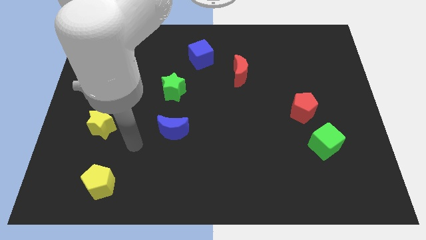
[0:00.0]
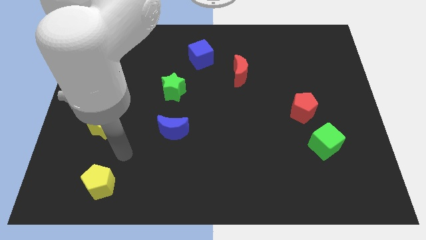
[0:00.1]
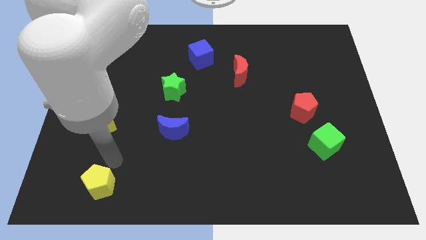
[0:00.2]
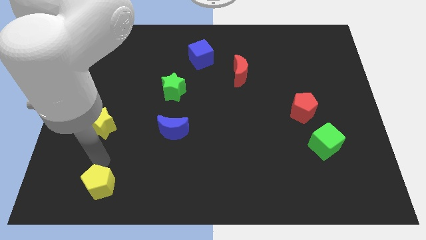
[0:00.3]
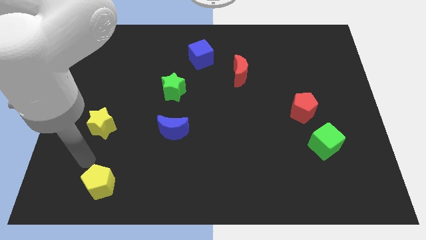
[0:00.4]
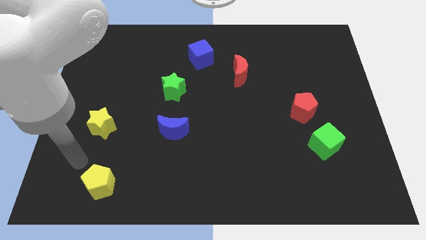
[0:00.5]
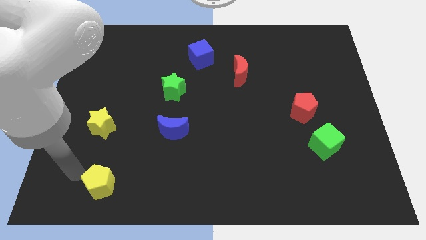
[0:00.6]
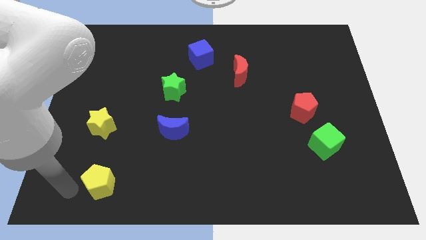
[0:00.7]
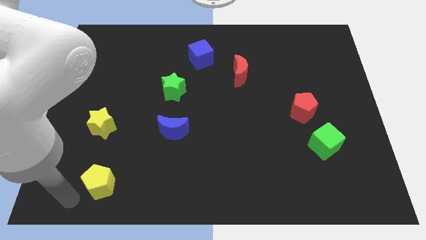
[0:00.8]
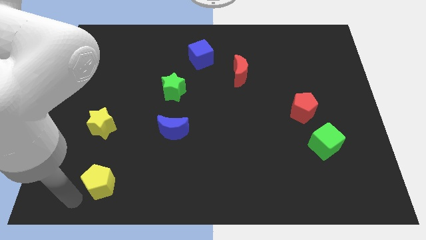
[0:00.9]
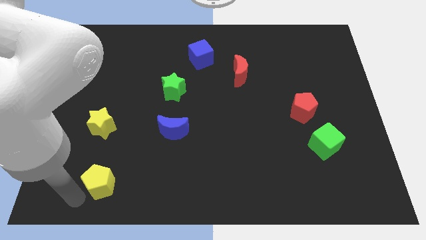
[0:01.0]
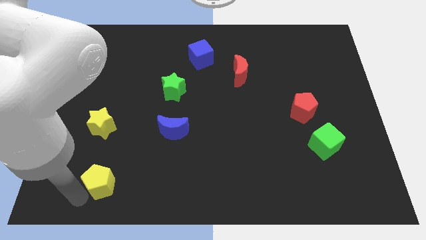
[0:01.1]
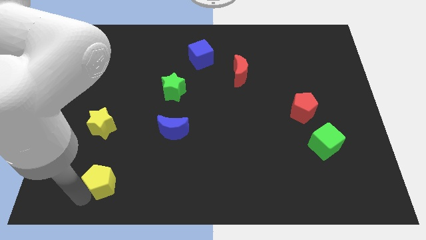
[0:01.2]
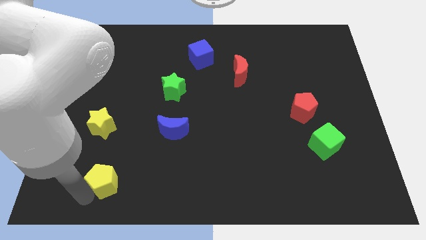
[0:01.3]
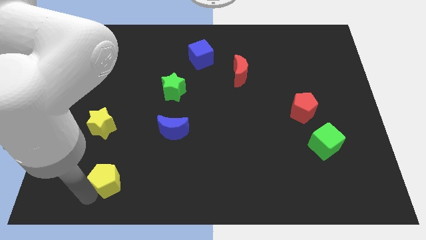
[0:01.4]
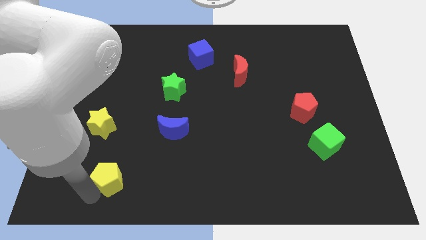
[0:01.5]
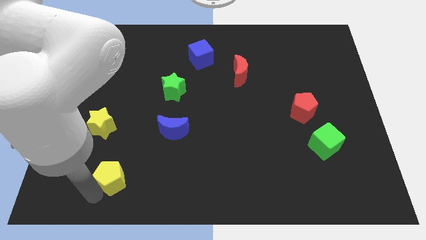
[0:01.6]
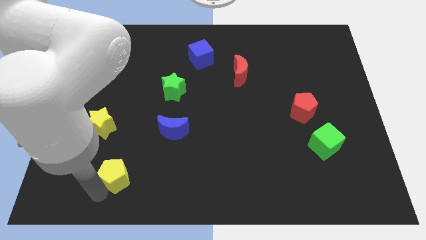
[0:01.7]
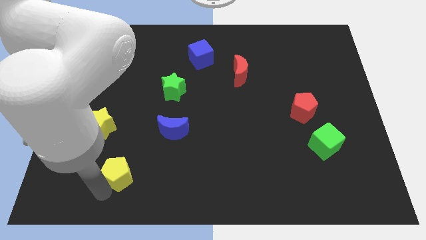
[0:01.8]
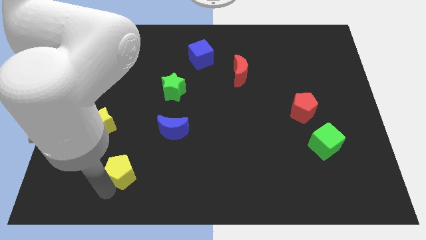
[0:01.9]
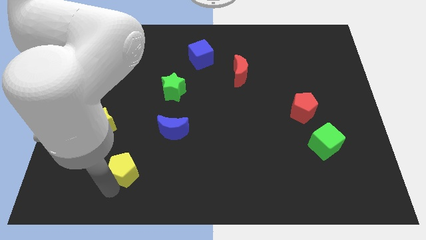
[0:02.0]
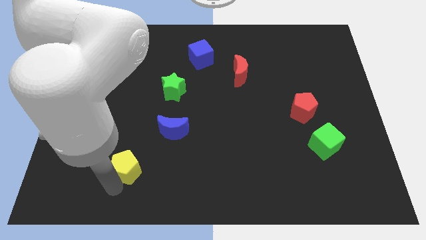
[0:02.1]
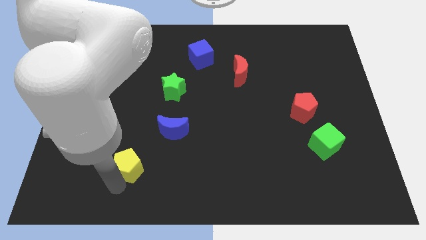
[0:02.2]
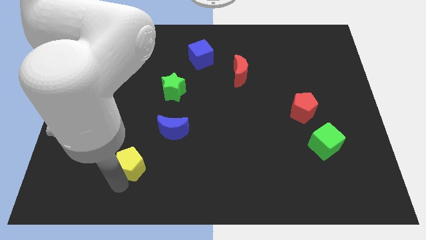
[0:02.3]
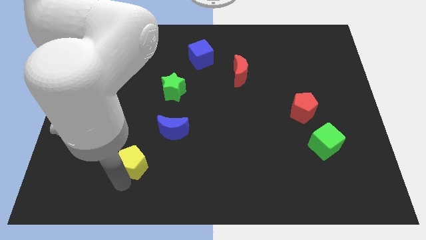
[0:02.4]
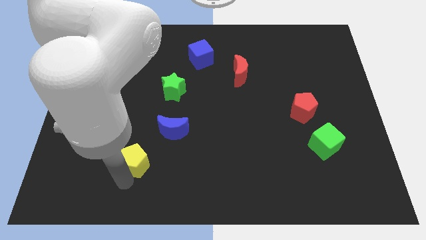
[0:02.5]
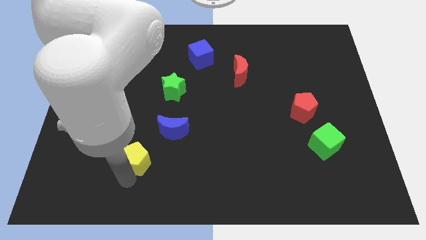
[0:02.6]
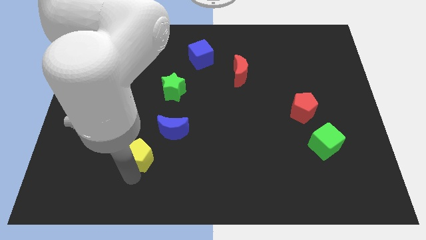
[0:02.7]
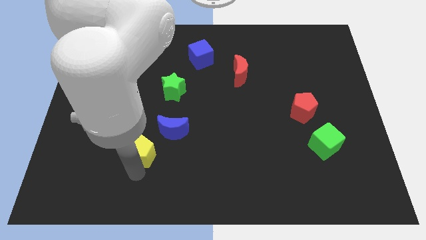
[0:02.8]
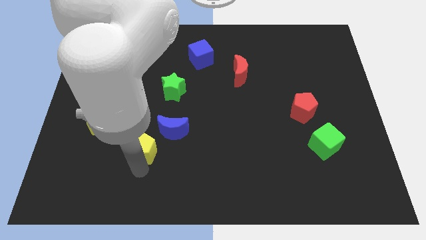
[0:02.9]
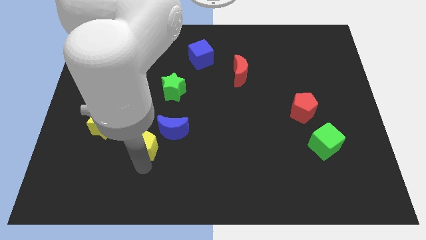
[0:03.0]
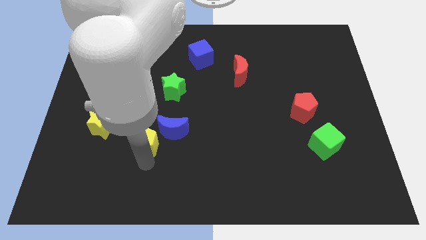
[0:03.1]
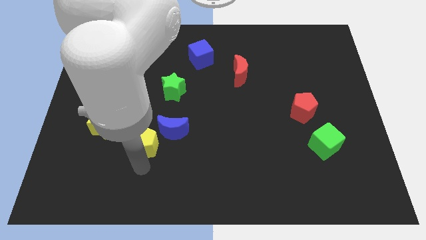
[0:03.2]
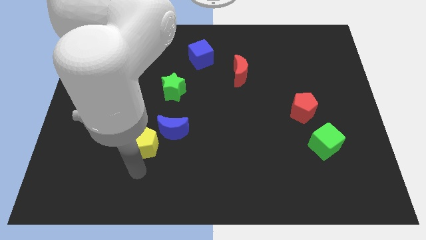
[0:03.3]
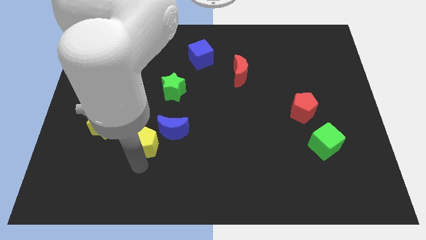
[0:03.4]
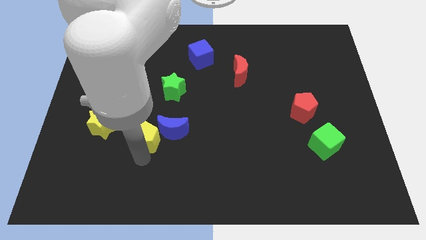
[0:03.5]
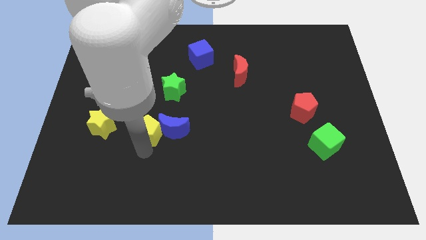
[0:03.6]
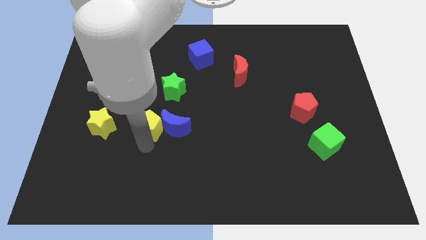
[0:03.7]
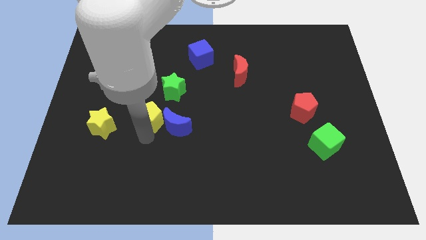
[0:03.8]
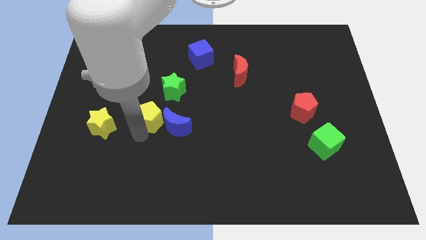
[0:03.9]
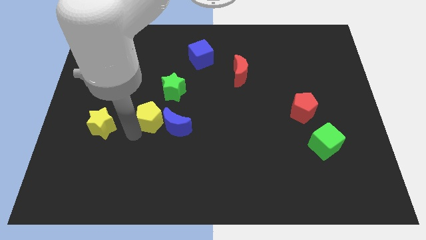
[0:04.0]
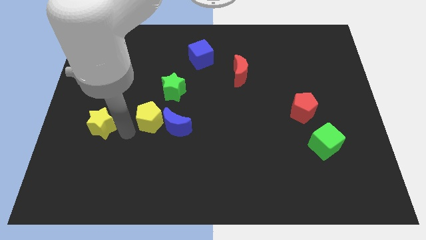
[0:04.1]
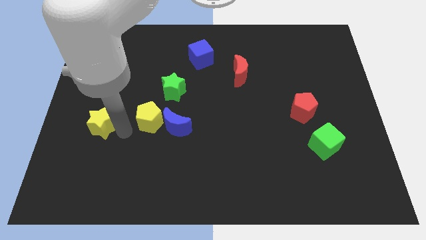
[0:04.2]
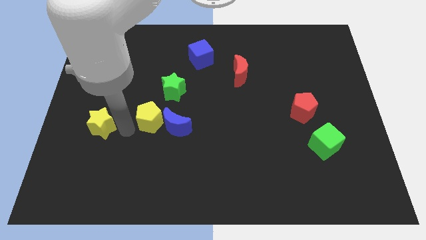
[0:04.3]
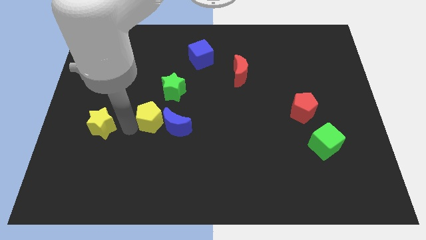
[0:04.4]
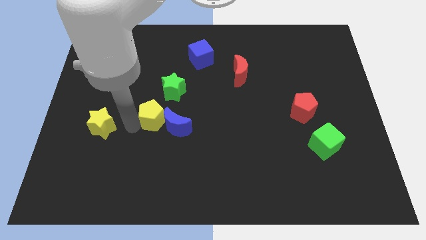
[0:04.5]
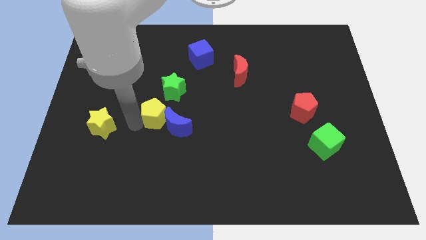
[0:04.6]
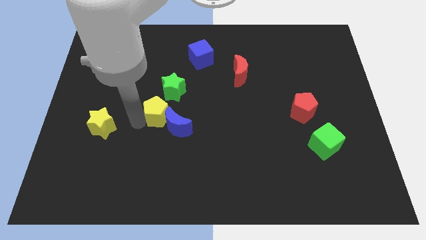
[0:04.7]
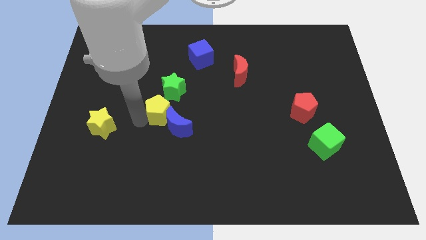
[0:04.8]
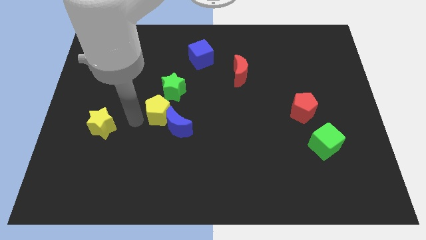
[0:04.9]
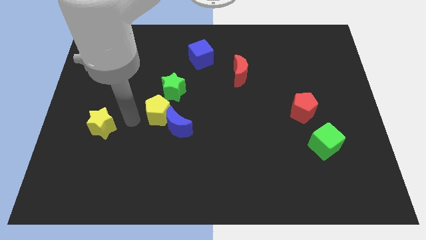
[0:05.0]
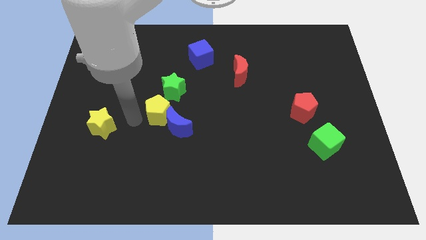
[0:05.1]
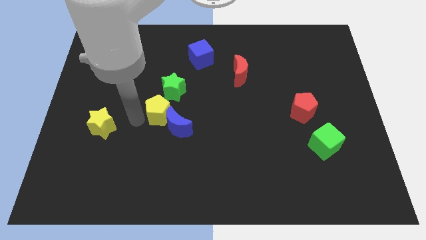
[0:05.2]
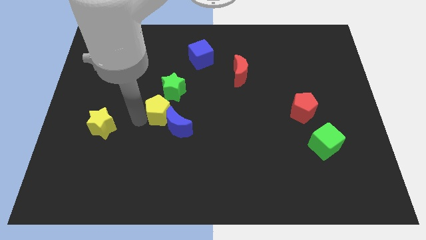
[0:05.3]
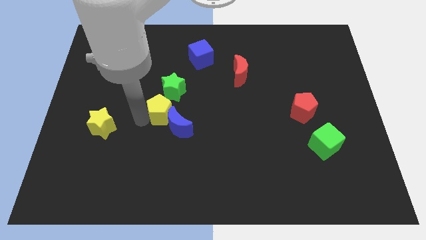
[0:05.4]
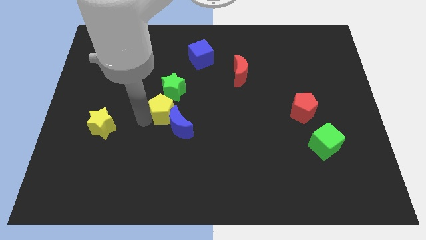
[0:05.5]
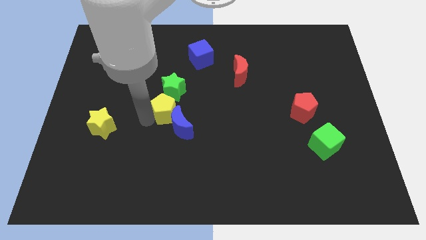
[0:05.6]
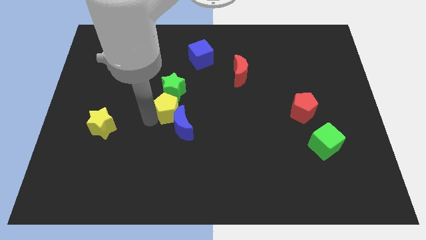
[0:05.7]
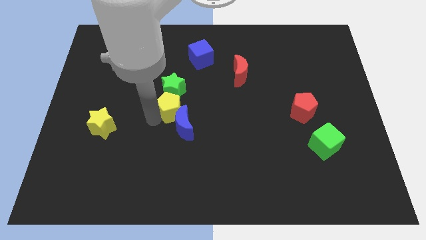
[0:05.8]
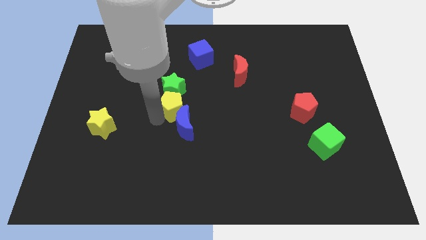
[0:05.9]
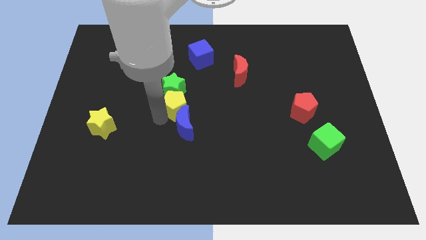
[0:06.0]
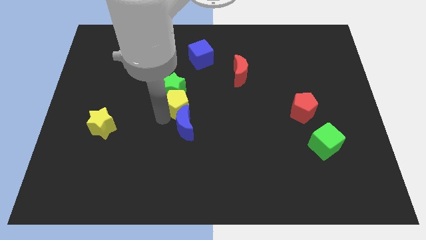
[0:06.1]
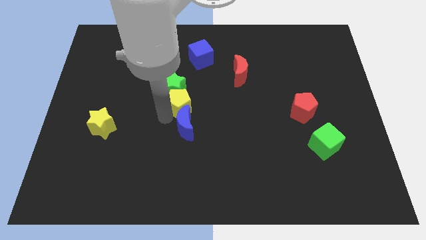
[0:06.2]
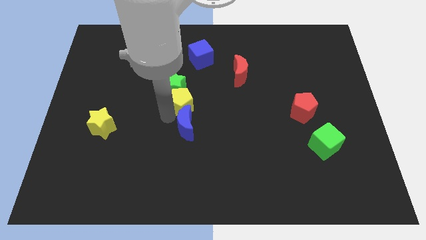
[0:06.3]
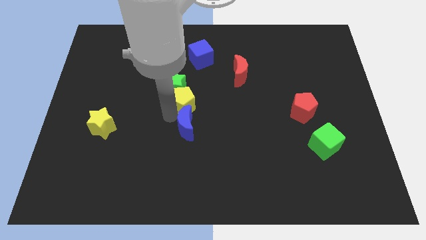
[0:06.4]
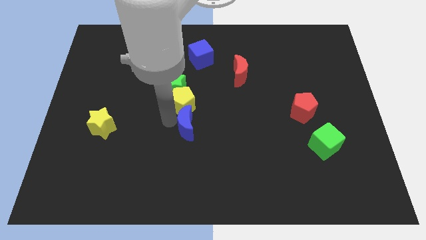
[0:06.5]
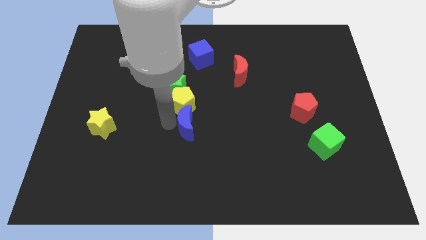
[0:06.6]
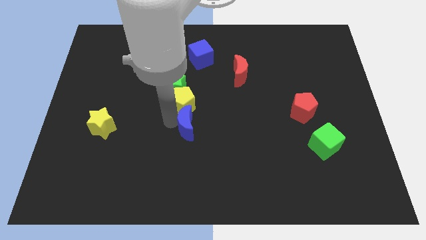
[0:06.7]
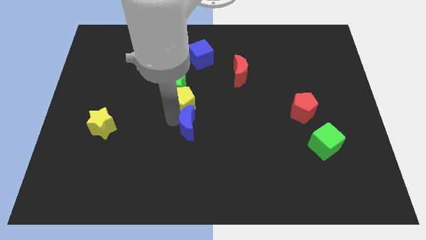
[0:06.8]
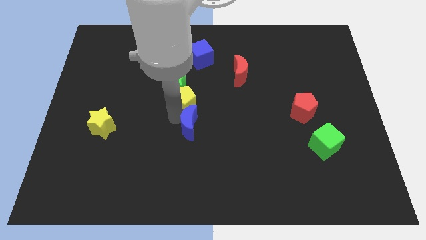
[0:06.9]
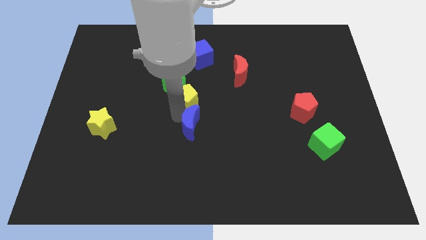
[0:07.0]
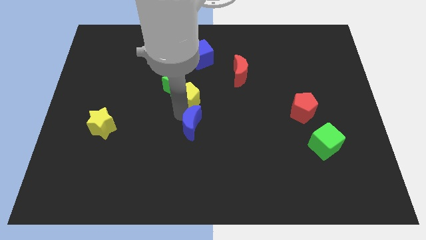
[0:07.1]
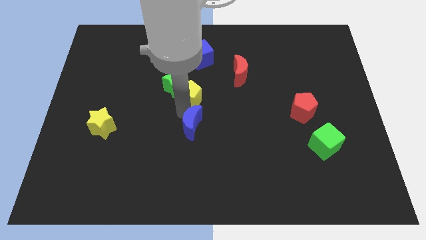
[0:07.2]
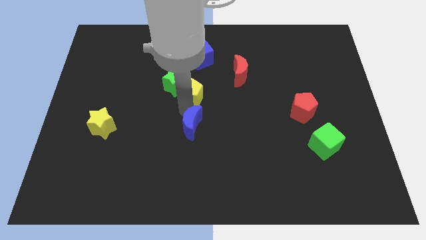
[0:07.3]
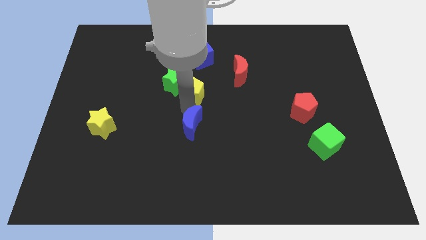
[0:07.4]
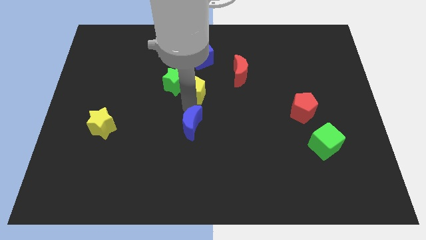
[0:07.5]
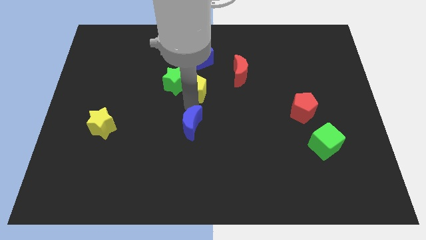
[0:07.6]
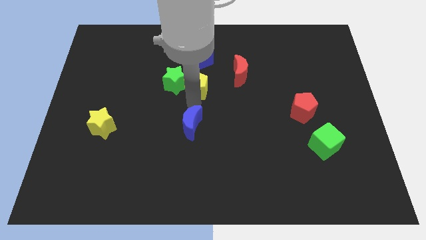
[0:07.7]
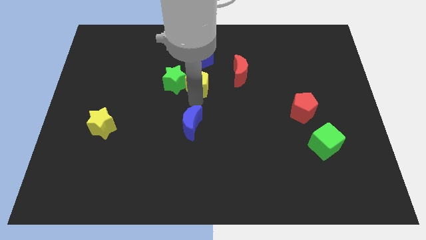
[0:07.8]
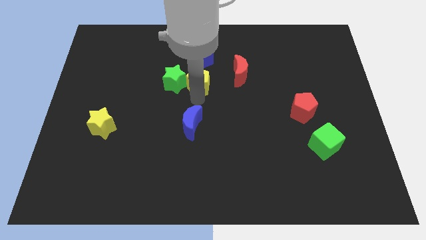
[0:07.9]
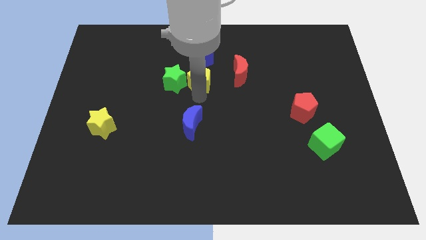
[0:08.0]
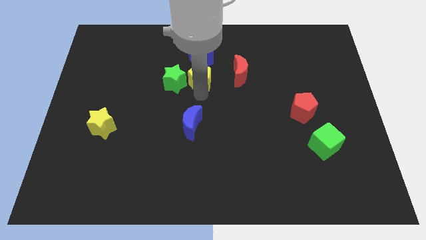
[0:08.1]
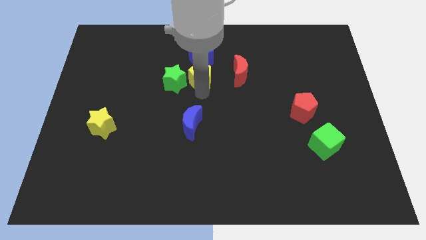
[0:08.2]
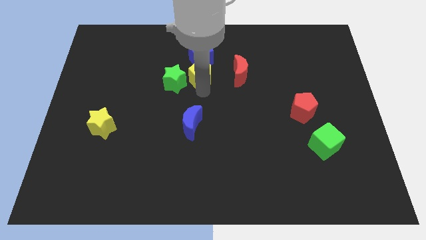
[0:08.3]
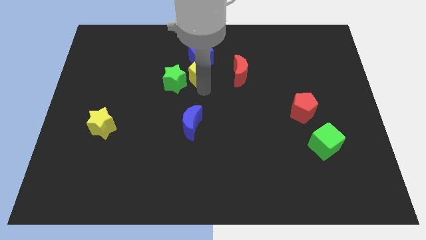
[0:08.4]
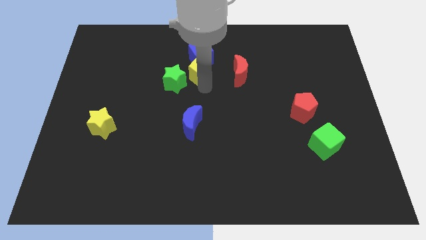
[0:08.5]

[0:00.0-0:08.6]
put the yellow pentagon towards the blue cube
